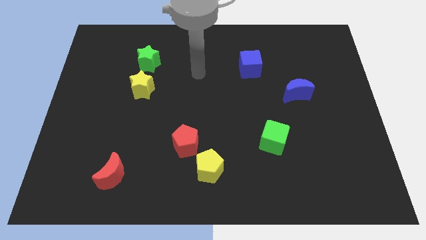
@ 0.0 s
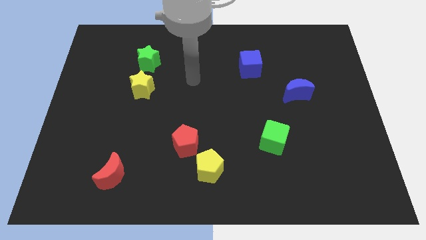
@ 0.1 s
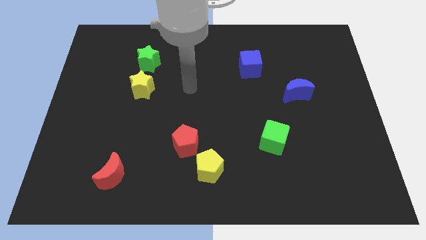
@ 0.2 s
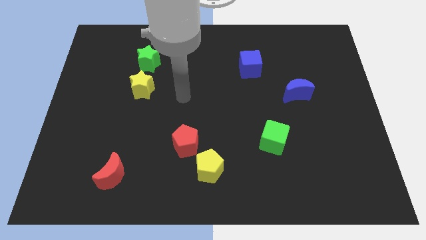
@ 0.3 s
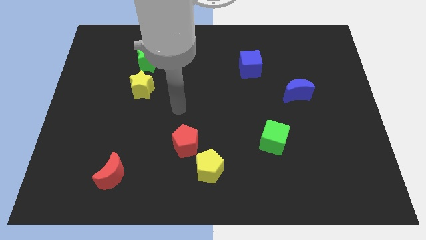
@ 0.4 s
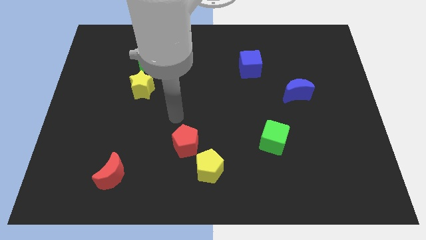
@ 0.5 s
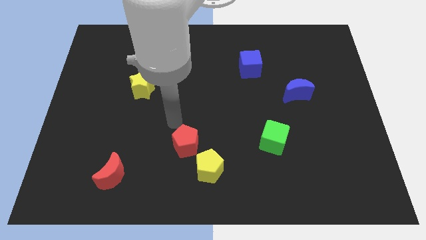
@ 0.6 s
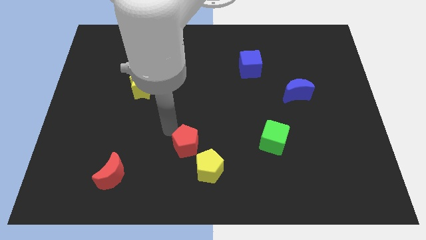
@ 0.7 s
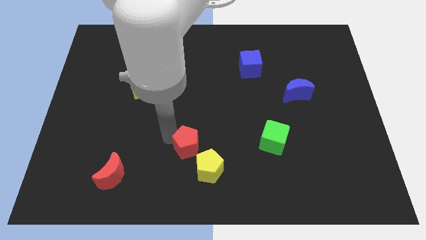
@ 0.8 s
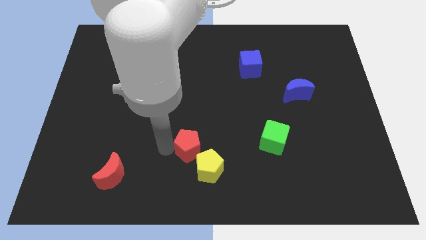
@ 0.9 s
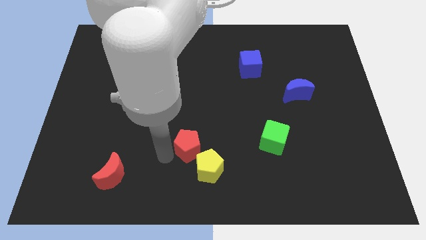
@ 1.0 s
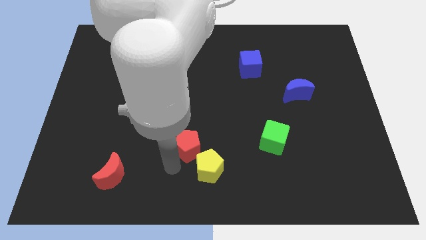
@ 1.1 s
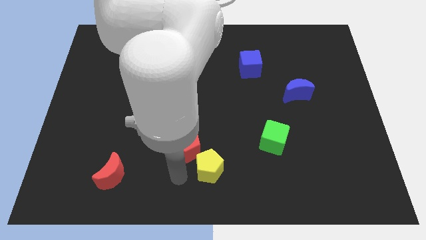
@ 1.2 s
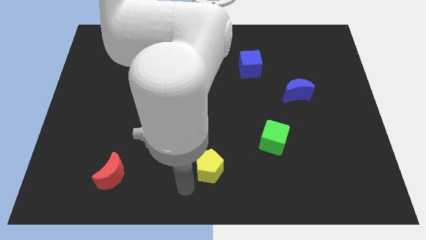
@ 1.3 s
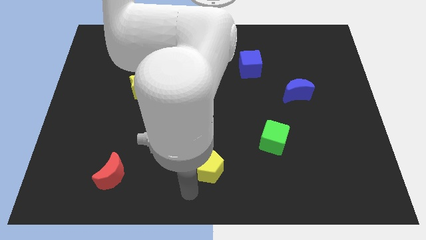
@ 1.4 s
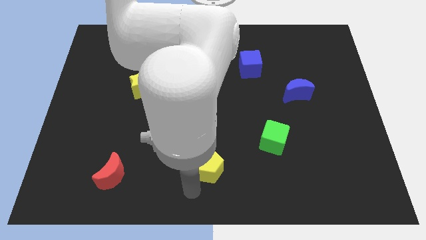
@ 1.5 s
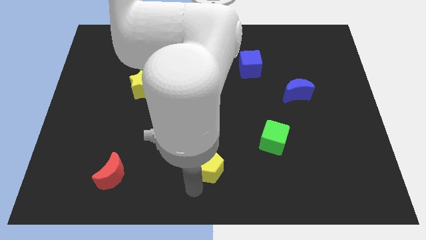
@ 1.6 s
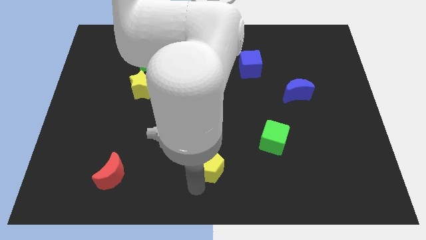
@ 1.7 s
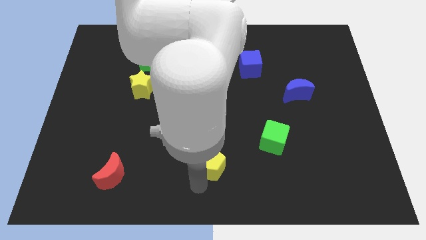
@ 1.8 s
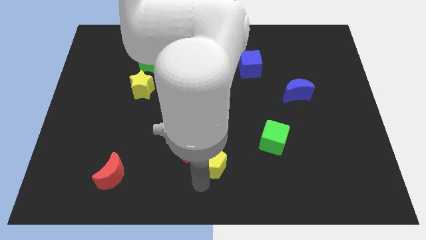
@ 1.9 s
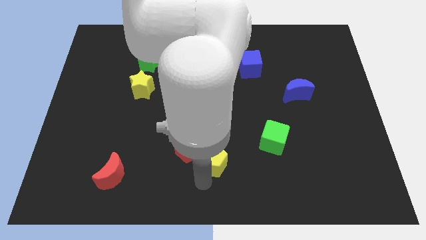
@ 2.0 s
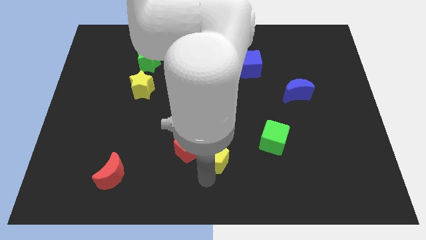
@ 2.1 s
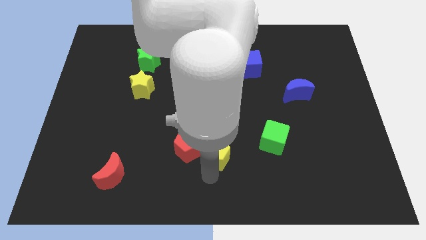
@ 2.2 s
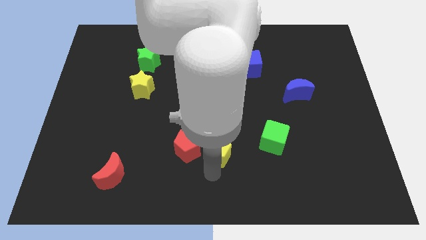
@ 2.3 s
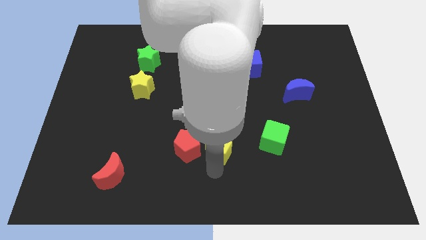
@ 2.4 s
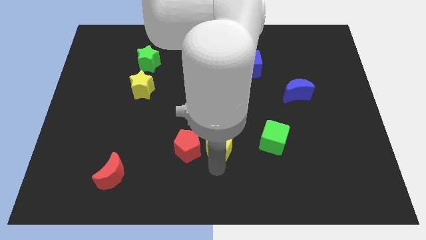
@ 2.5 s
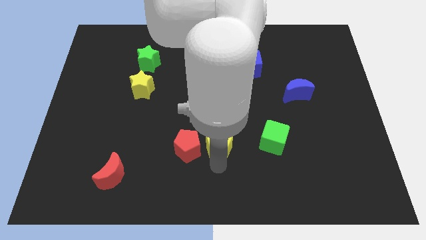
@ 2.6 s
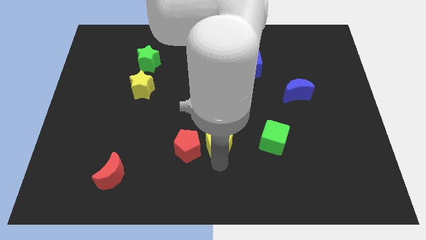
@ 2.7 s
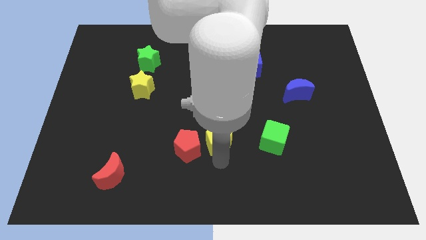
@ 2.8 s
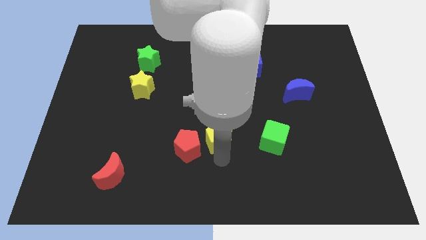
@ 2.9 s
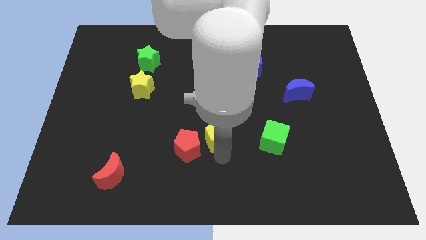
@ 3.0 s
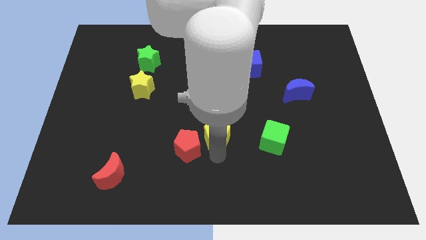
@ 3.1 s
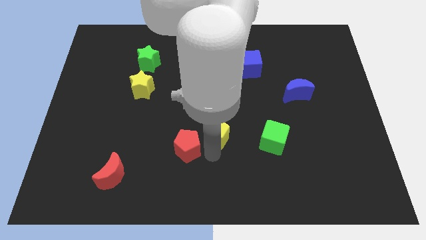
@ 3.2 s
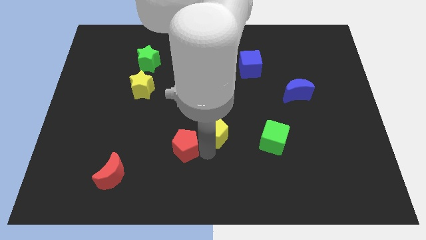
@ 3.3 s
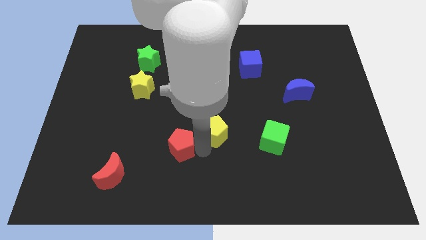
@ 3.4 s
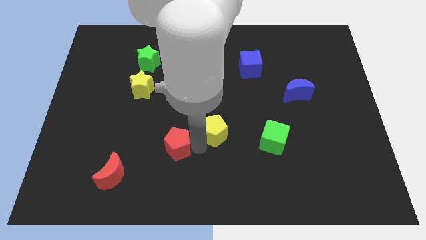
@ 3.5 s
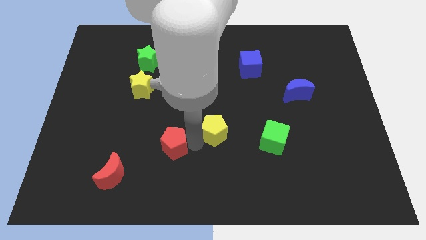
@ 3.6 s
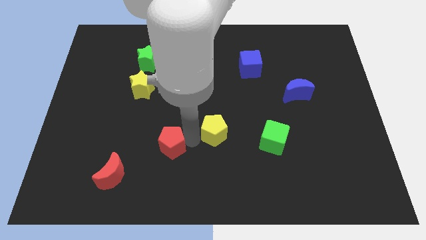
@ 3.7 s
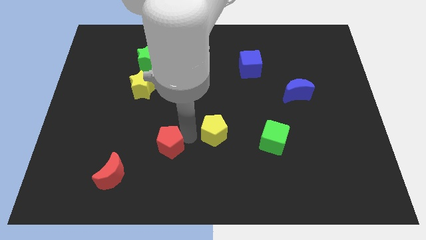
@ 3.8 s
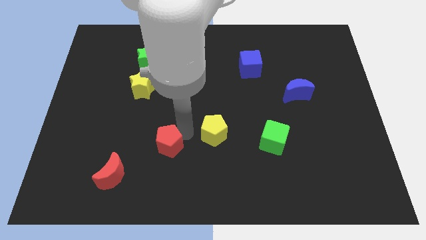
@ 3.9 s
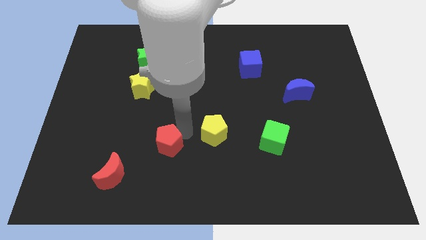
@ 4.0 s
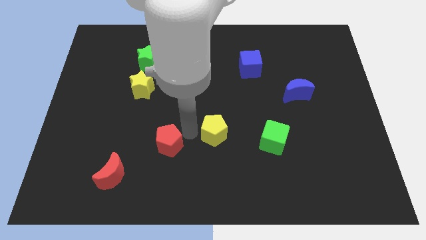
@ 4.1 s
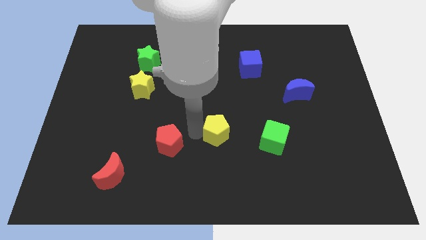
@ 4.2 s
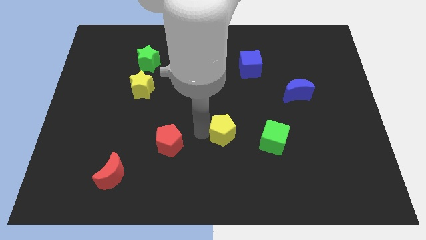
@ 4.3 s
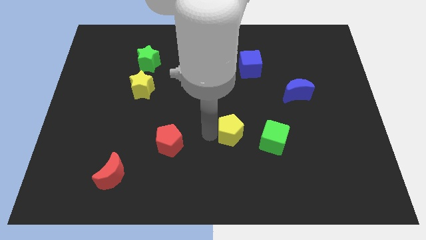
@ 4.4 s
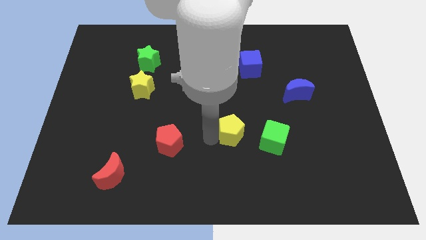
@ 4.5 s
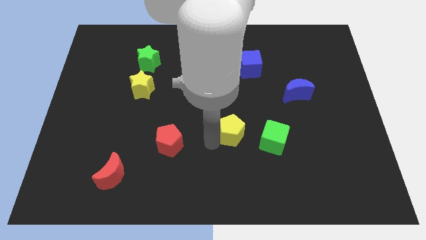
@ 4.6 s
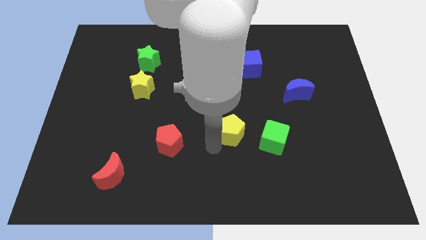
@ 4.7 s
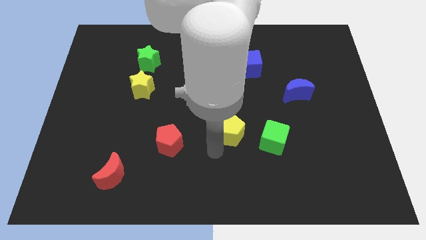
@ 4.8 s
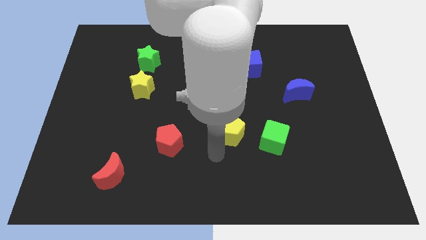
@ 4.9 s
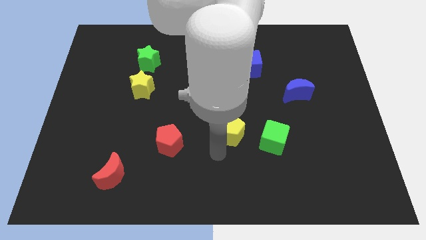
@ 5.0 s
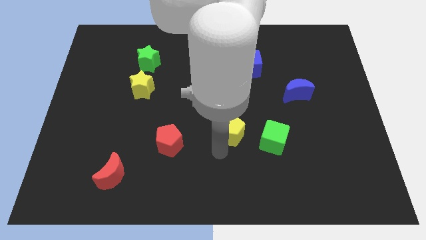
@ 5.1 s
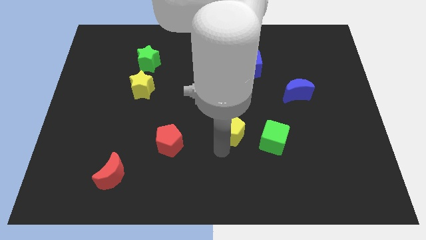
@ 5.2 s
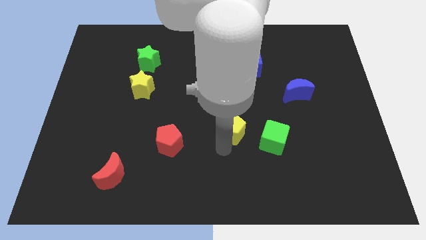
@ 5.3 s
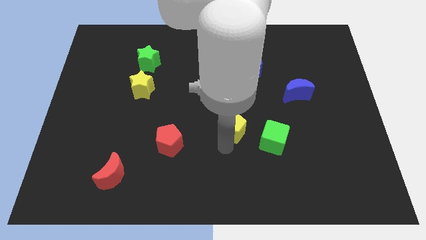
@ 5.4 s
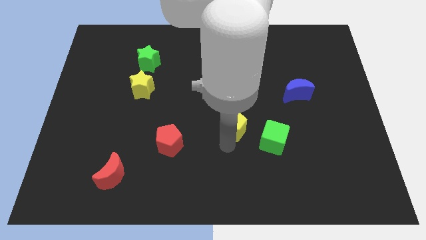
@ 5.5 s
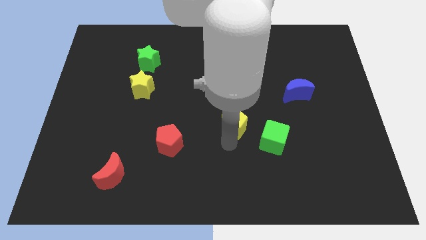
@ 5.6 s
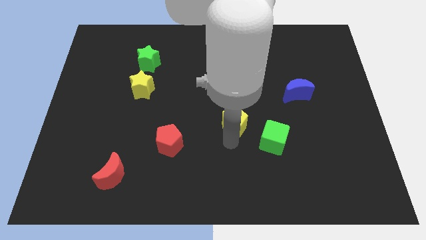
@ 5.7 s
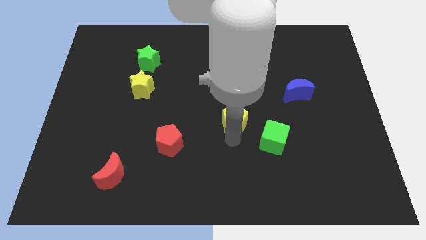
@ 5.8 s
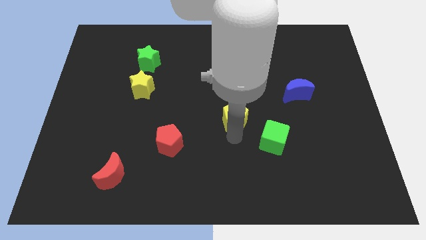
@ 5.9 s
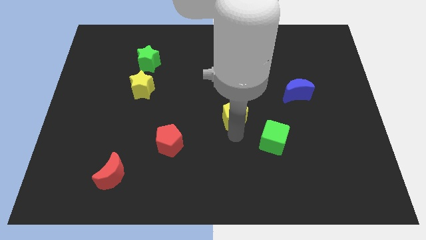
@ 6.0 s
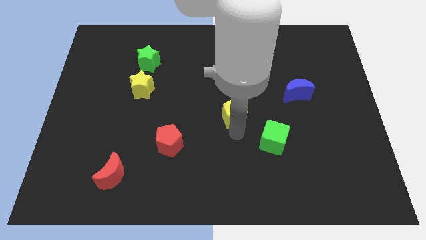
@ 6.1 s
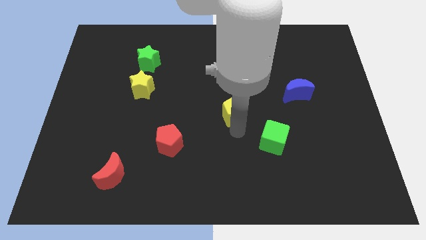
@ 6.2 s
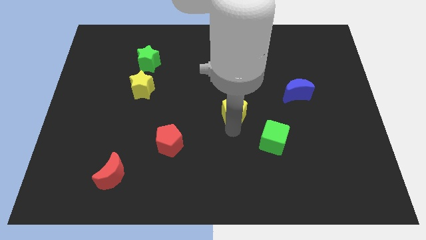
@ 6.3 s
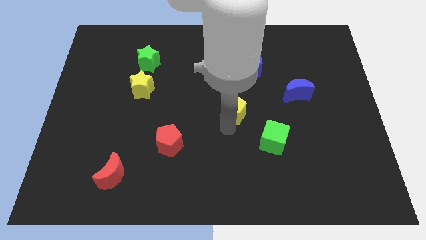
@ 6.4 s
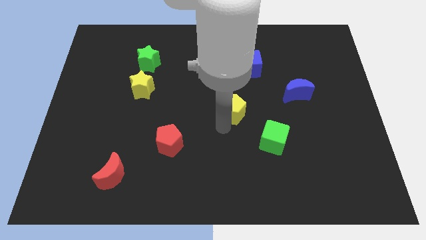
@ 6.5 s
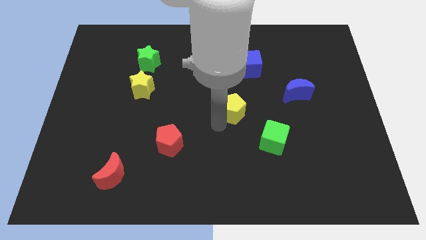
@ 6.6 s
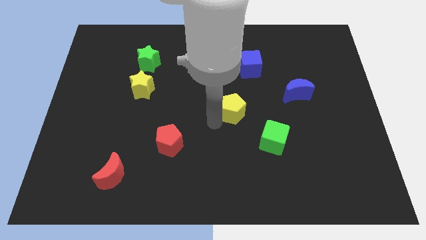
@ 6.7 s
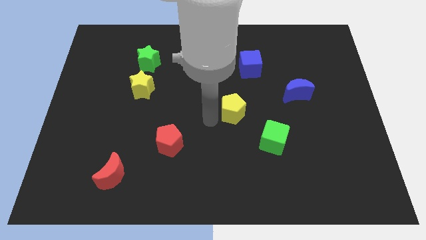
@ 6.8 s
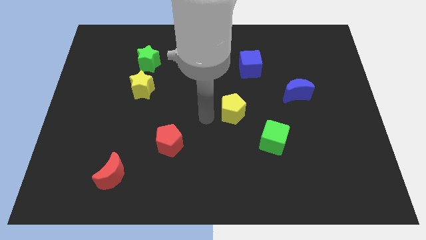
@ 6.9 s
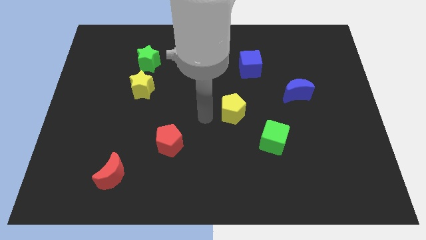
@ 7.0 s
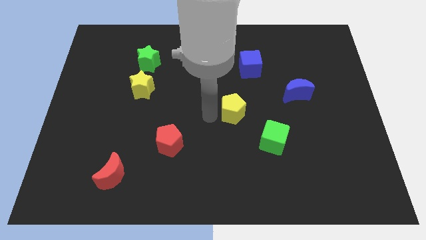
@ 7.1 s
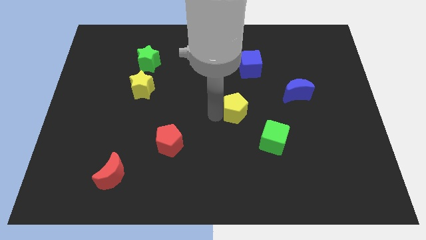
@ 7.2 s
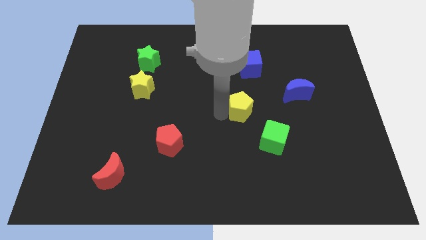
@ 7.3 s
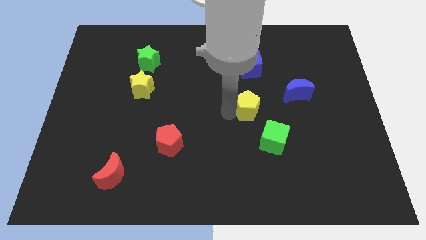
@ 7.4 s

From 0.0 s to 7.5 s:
put the yellow pentagon left of the blue moon
